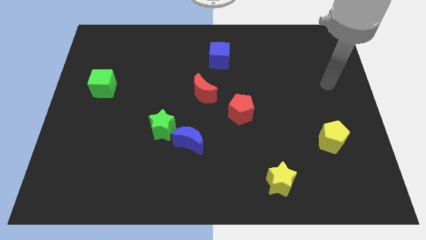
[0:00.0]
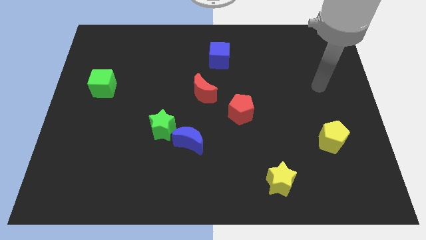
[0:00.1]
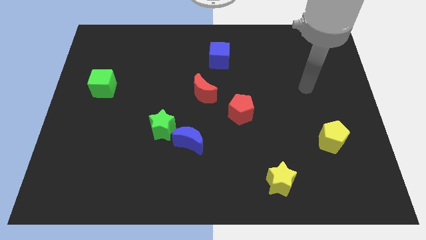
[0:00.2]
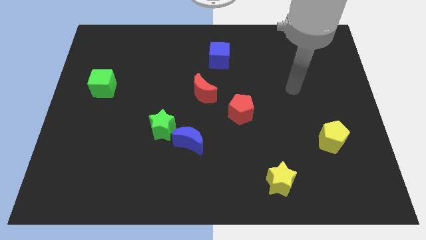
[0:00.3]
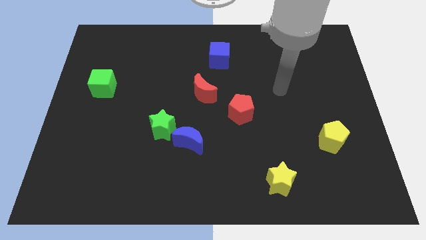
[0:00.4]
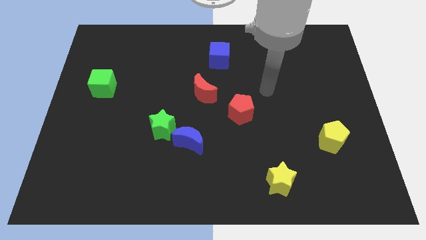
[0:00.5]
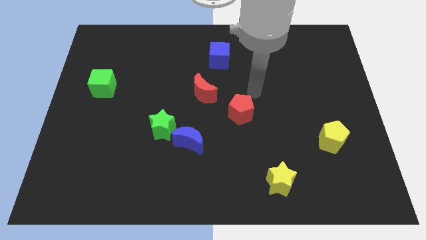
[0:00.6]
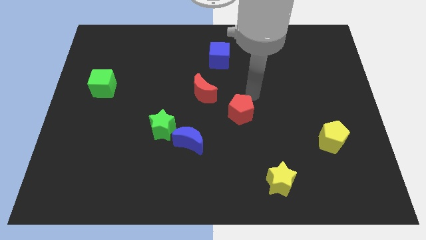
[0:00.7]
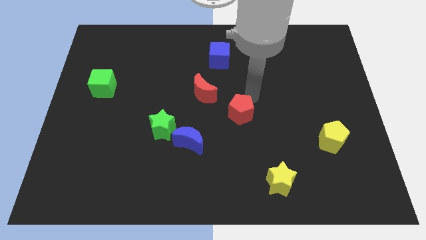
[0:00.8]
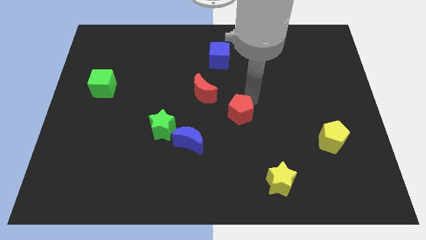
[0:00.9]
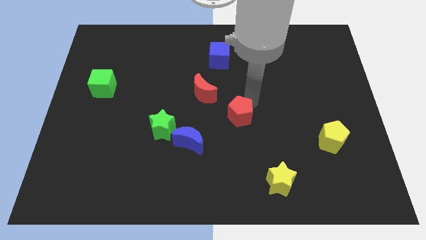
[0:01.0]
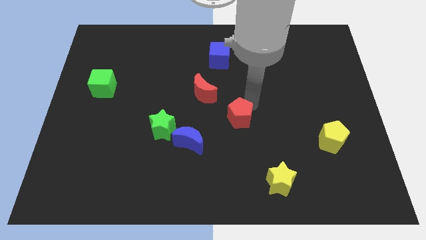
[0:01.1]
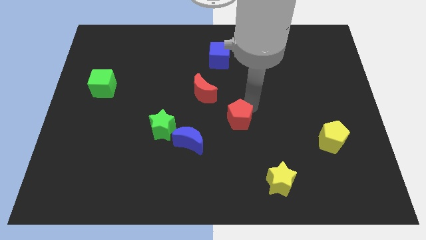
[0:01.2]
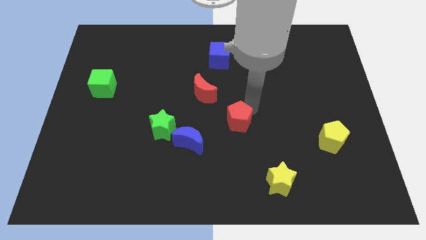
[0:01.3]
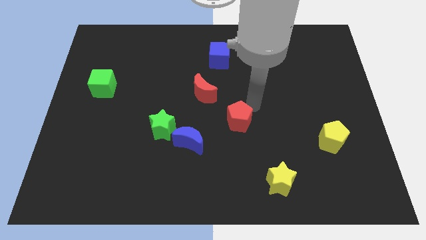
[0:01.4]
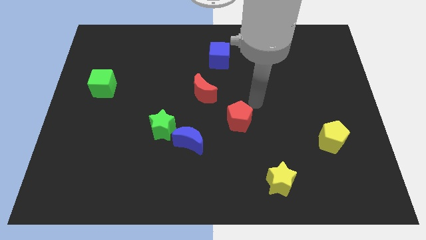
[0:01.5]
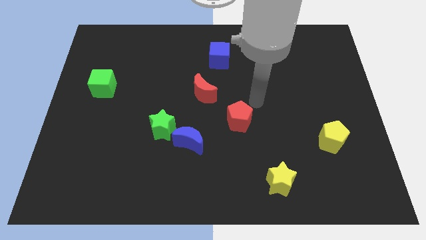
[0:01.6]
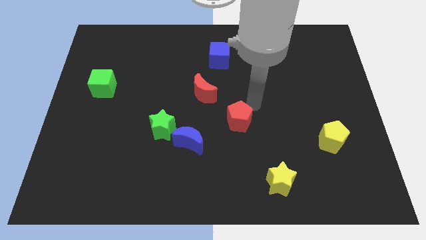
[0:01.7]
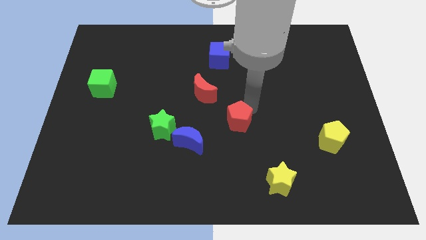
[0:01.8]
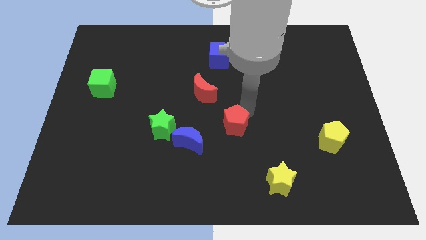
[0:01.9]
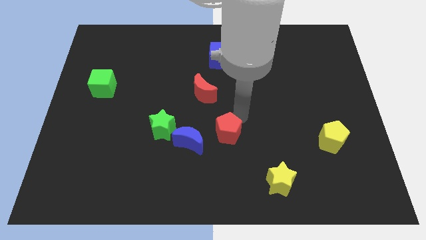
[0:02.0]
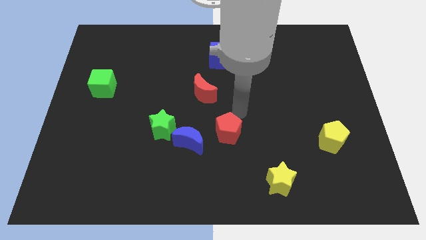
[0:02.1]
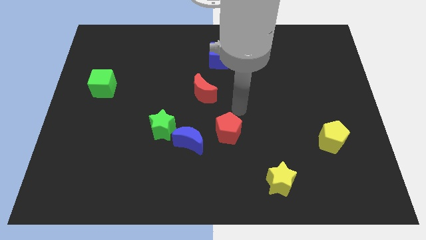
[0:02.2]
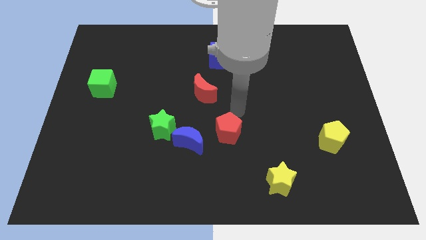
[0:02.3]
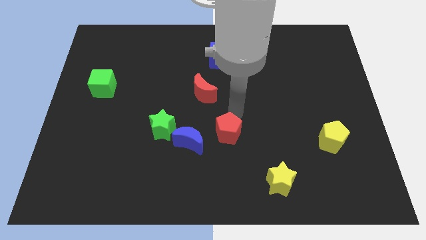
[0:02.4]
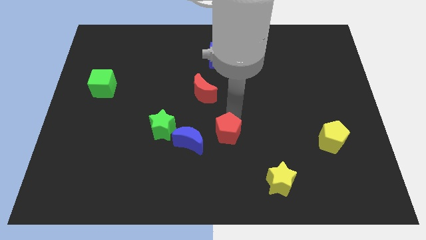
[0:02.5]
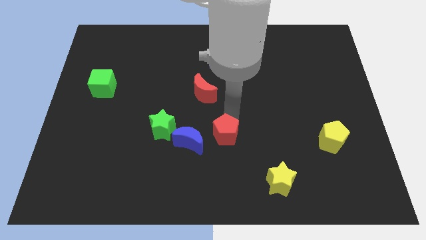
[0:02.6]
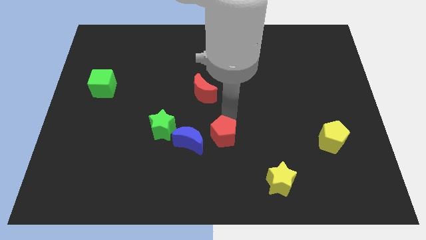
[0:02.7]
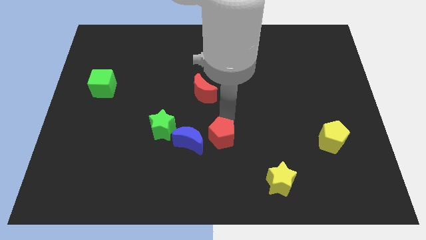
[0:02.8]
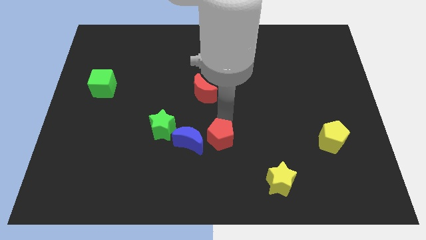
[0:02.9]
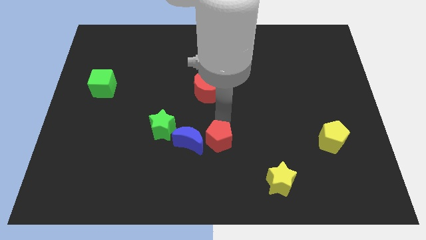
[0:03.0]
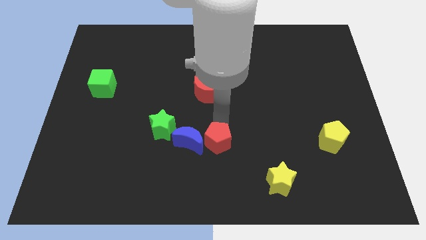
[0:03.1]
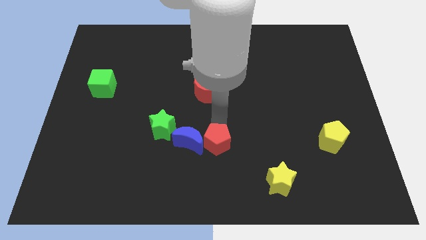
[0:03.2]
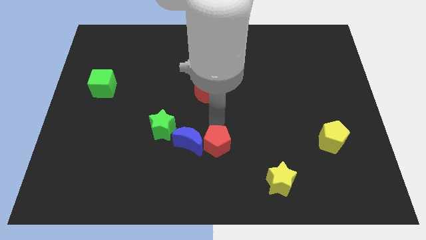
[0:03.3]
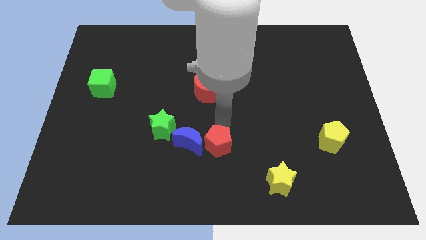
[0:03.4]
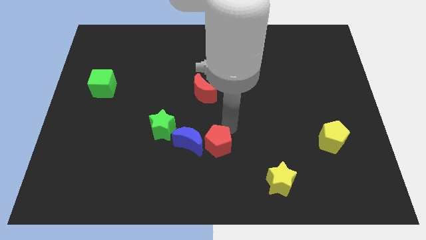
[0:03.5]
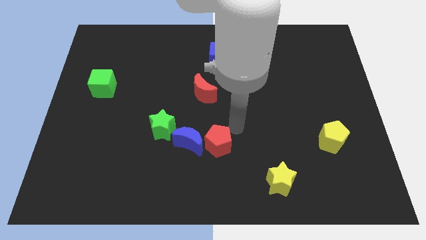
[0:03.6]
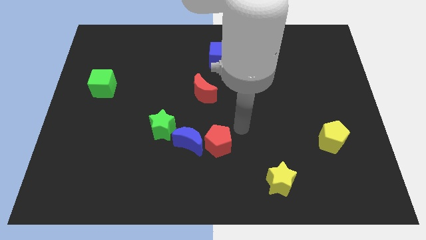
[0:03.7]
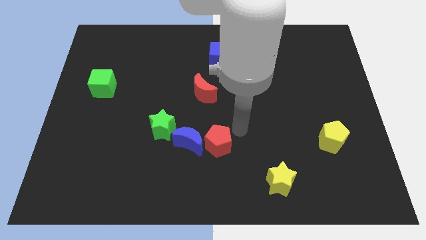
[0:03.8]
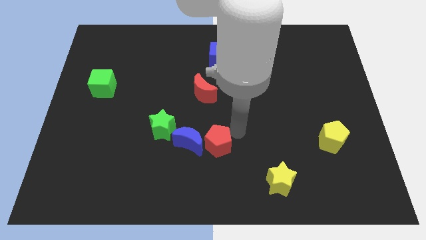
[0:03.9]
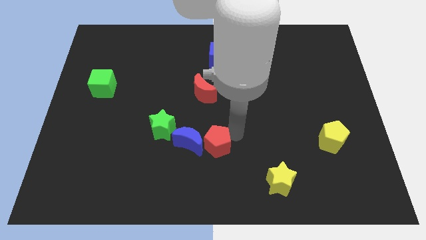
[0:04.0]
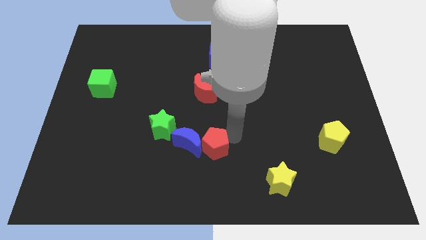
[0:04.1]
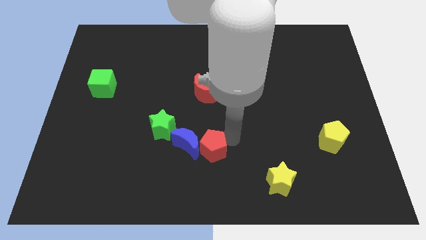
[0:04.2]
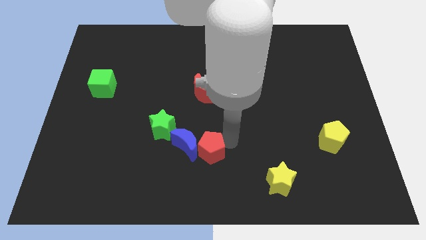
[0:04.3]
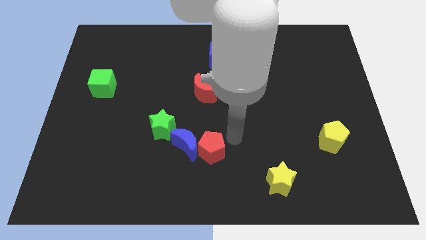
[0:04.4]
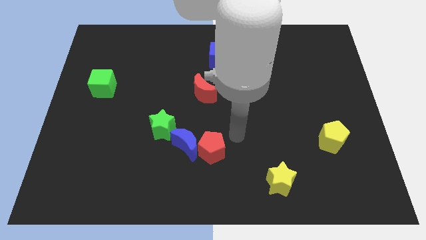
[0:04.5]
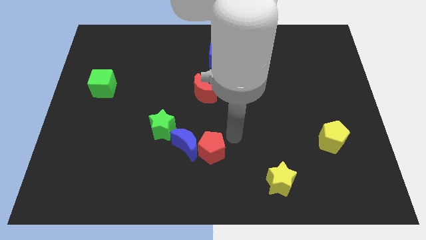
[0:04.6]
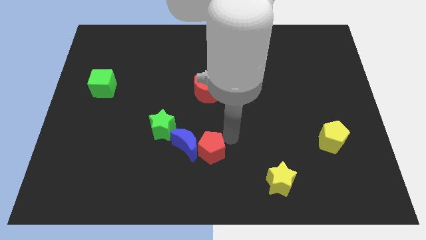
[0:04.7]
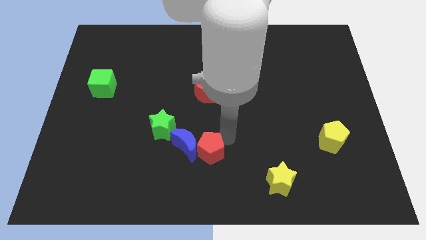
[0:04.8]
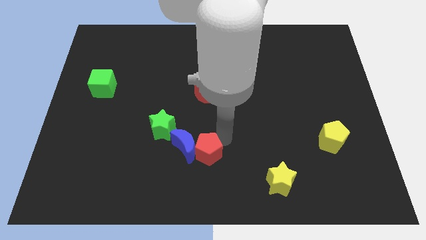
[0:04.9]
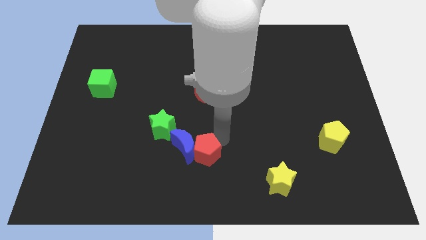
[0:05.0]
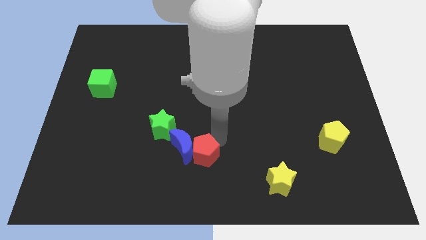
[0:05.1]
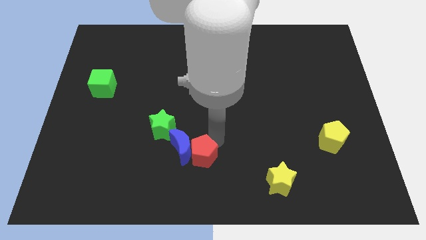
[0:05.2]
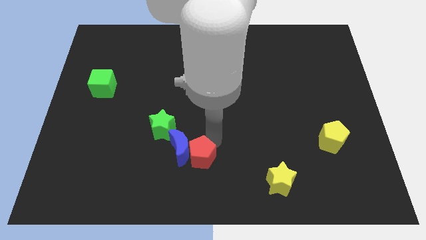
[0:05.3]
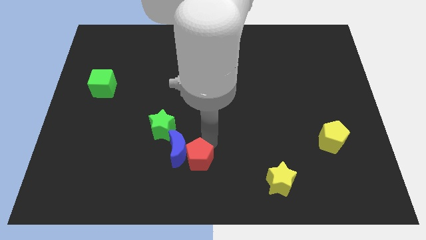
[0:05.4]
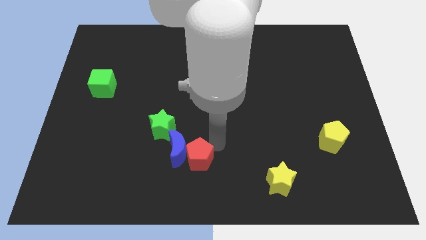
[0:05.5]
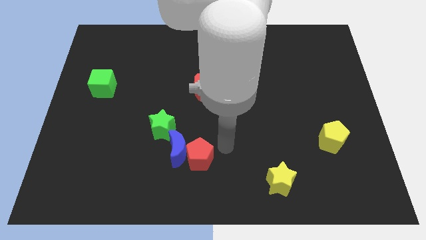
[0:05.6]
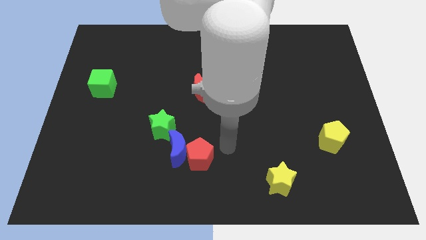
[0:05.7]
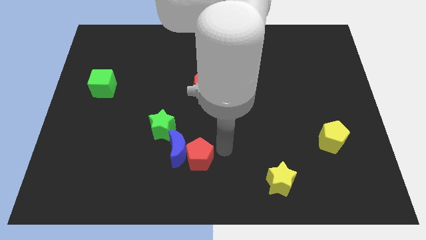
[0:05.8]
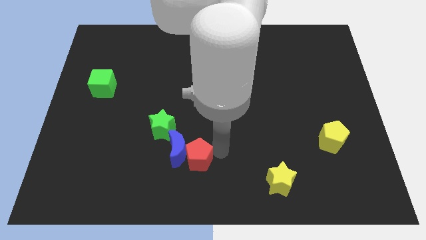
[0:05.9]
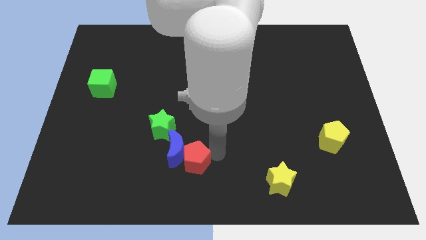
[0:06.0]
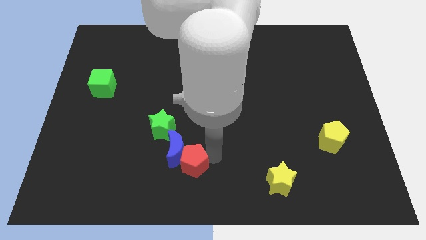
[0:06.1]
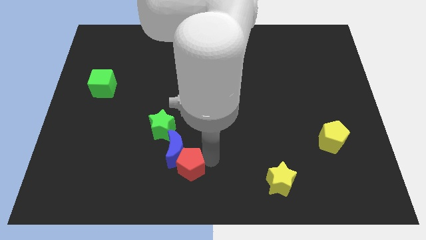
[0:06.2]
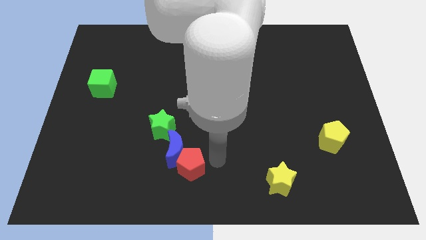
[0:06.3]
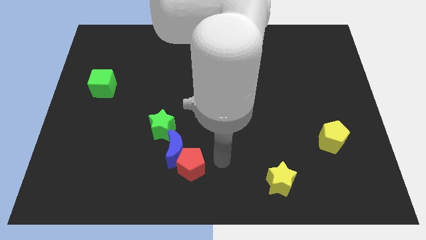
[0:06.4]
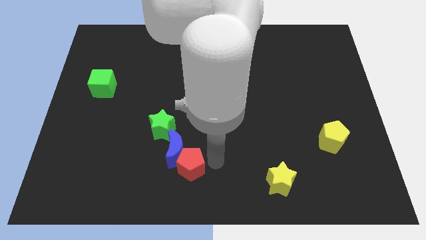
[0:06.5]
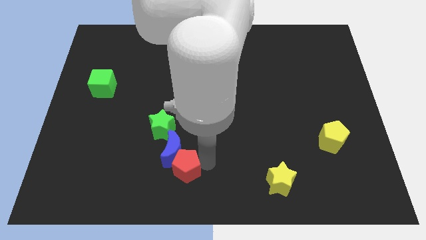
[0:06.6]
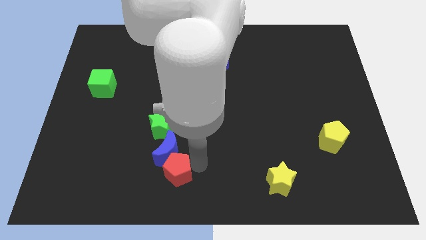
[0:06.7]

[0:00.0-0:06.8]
put the red pentagon to the bottom of the green star

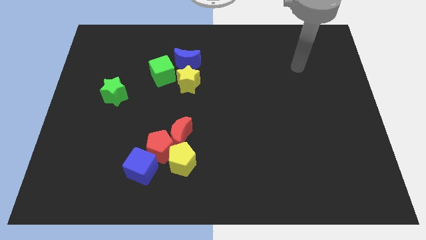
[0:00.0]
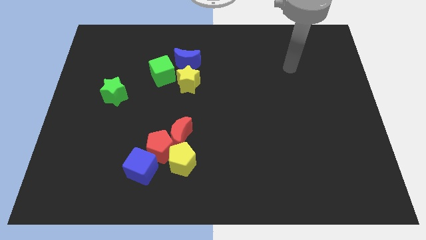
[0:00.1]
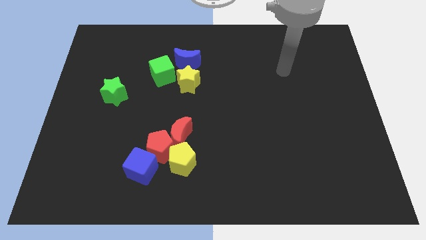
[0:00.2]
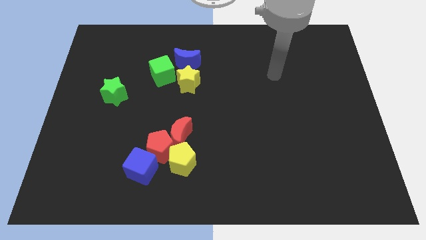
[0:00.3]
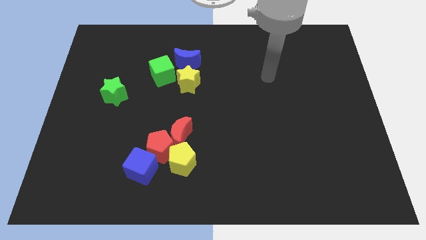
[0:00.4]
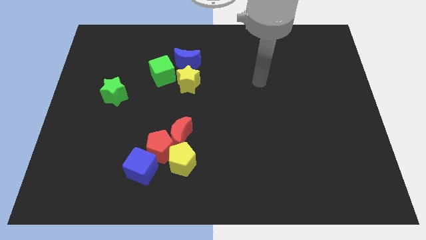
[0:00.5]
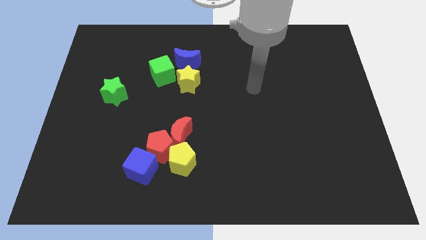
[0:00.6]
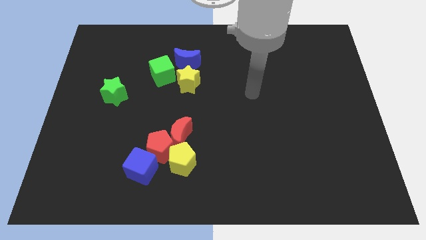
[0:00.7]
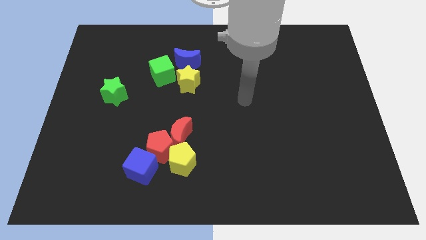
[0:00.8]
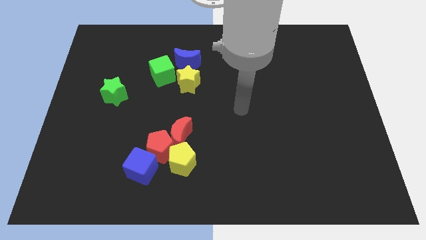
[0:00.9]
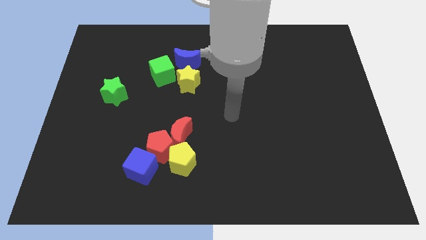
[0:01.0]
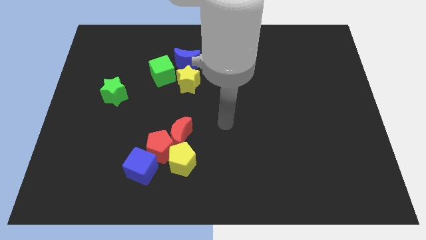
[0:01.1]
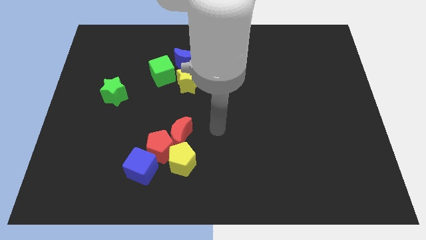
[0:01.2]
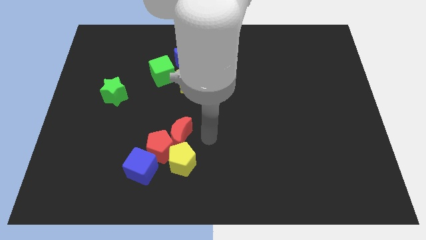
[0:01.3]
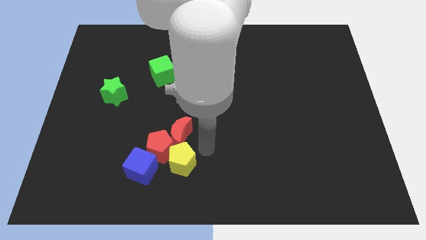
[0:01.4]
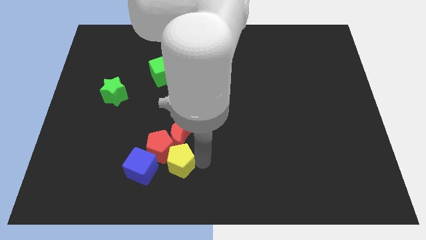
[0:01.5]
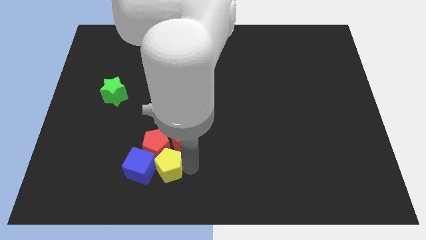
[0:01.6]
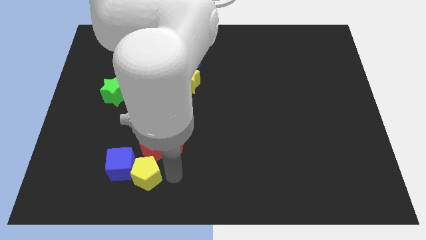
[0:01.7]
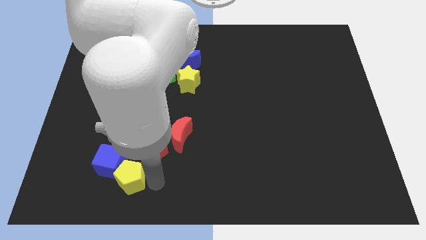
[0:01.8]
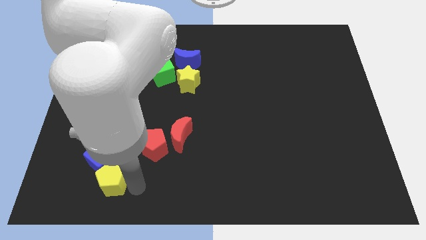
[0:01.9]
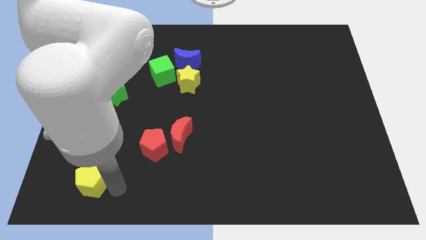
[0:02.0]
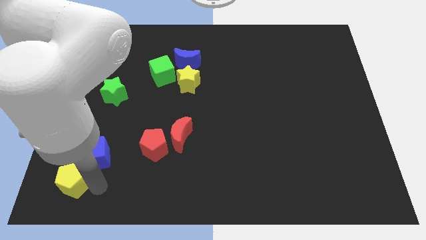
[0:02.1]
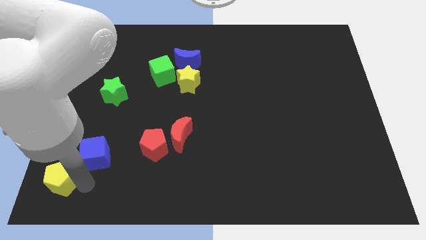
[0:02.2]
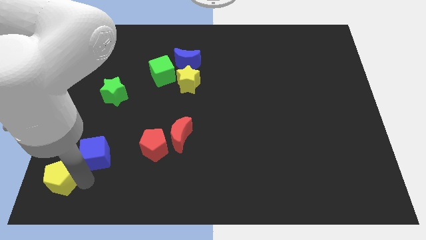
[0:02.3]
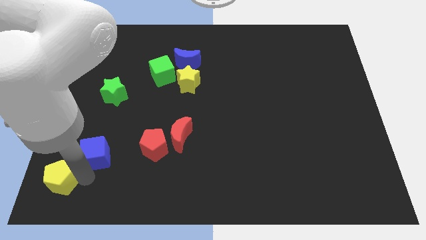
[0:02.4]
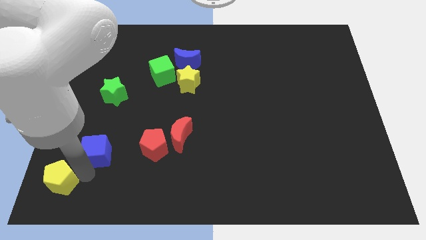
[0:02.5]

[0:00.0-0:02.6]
slide the blue cube to the bottom of the green star
